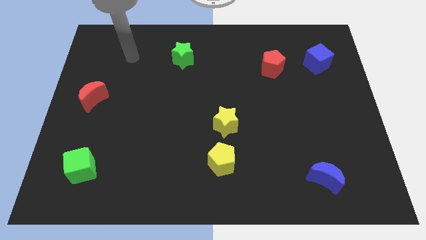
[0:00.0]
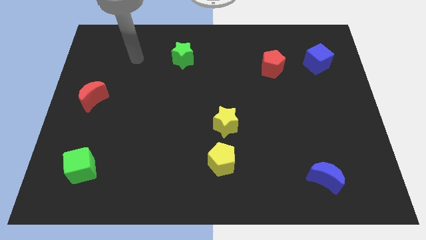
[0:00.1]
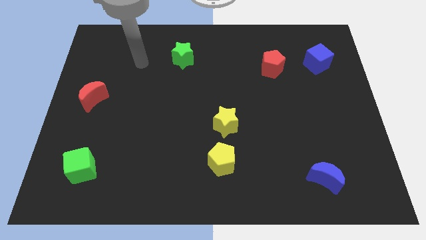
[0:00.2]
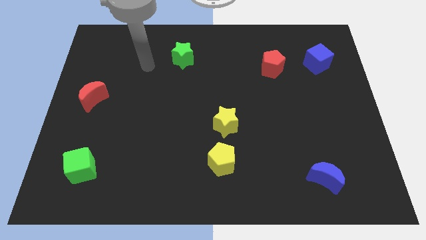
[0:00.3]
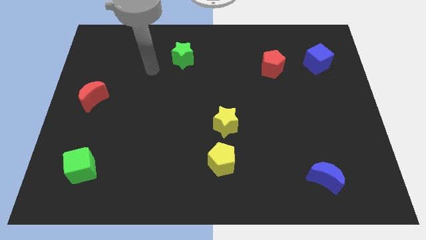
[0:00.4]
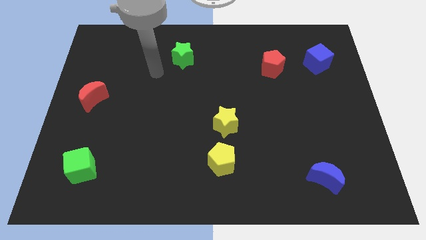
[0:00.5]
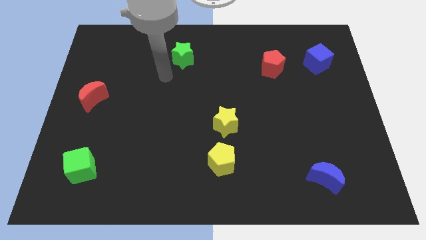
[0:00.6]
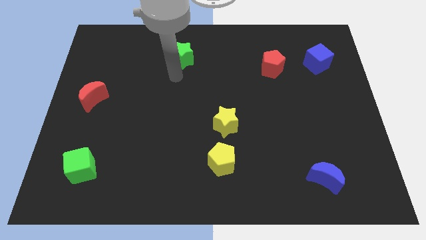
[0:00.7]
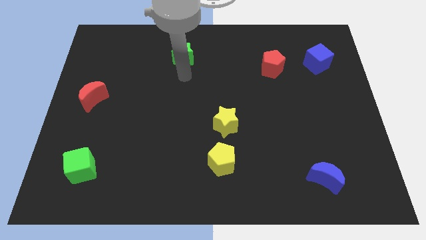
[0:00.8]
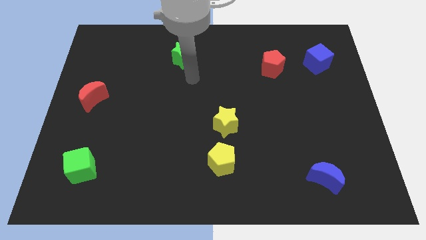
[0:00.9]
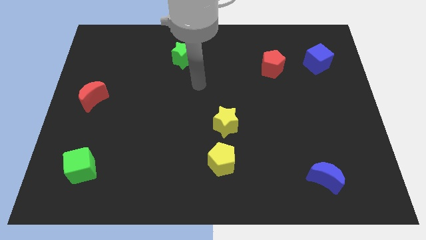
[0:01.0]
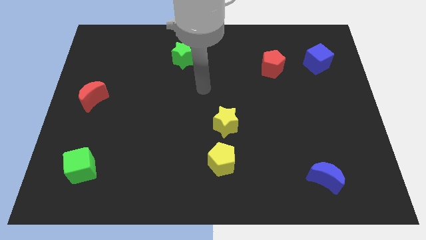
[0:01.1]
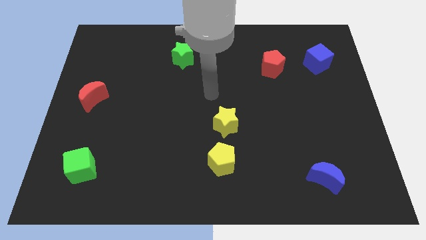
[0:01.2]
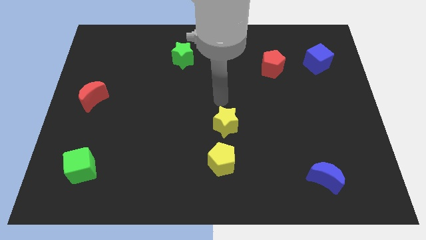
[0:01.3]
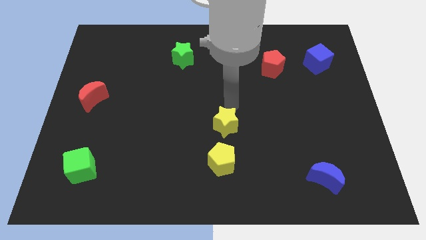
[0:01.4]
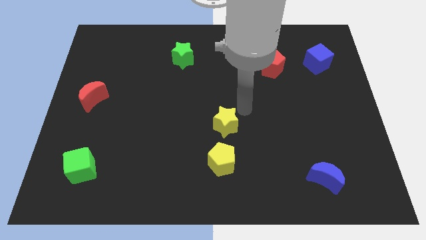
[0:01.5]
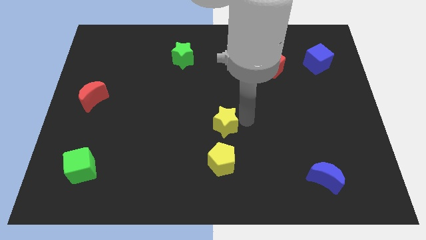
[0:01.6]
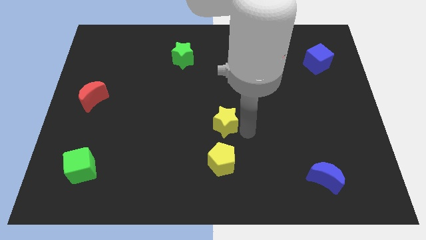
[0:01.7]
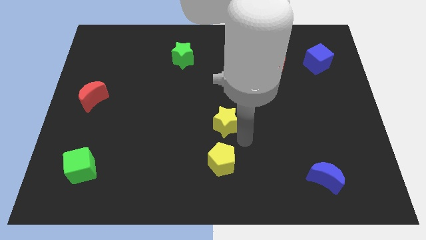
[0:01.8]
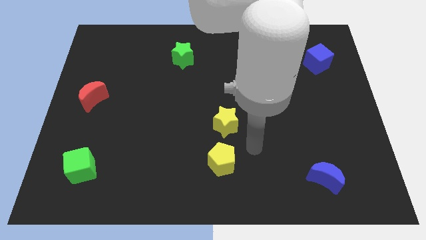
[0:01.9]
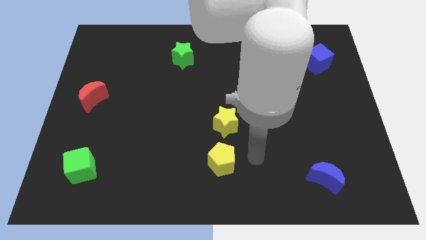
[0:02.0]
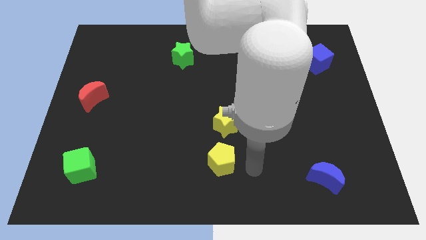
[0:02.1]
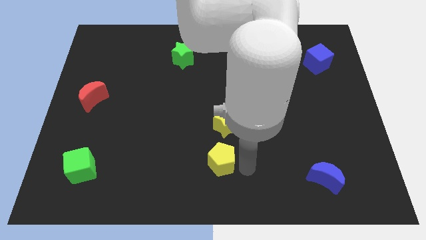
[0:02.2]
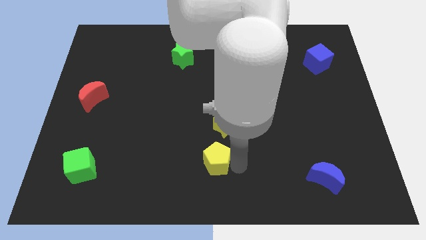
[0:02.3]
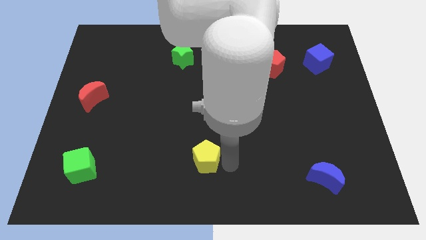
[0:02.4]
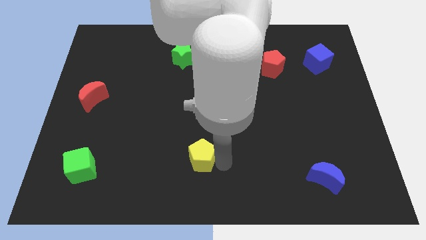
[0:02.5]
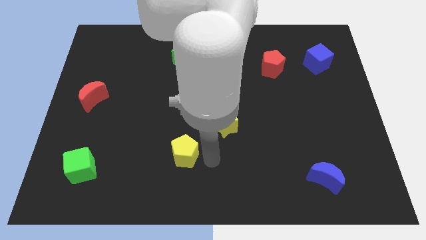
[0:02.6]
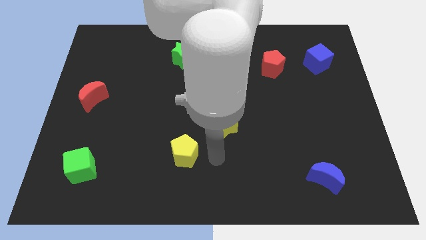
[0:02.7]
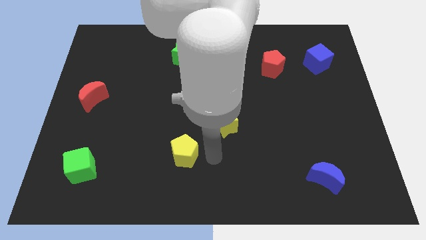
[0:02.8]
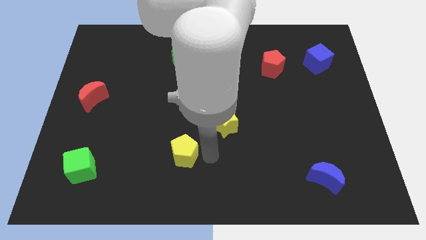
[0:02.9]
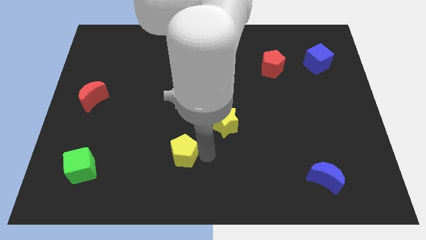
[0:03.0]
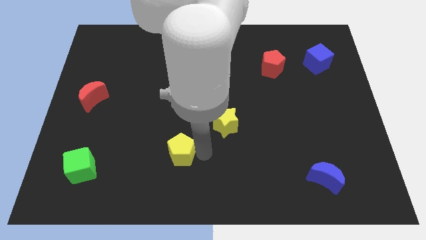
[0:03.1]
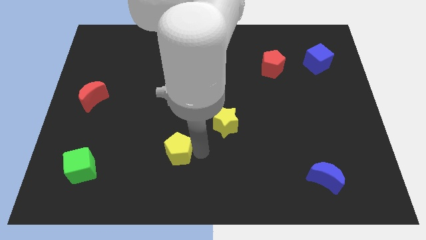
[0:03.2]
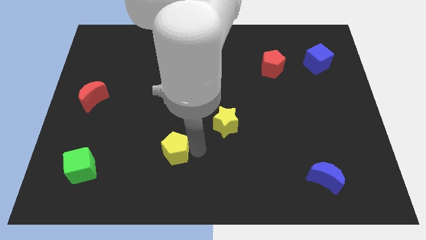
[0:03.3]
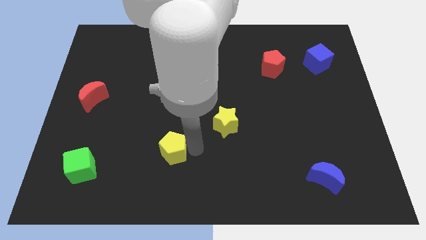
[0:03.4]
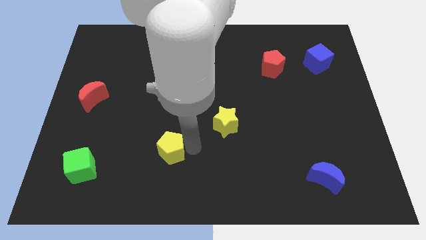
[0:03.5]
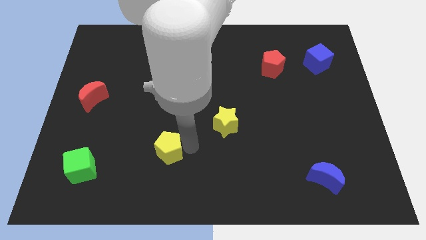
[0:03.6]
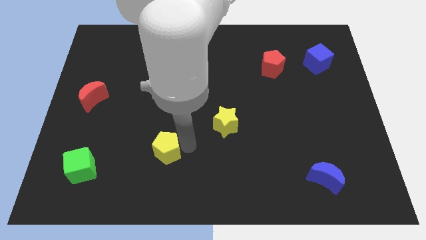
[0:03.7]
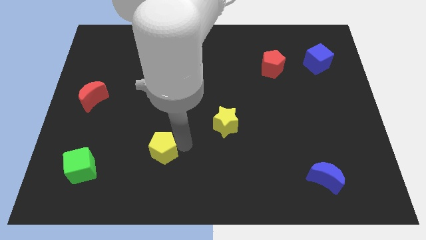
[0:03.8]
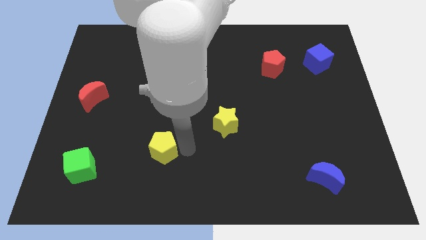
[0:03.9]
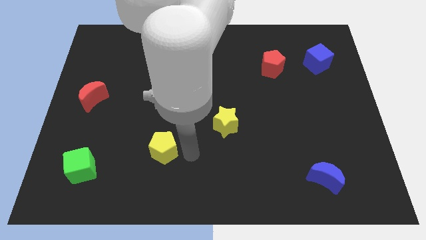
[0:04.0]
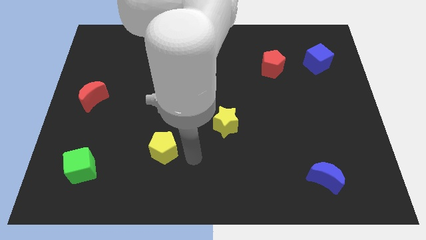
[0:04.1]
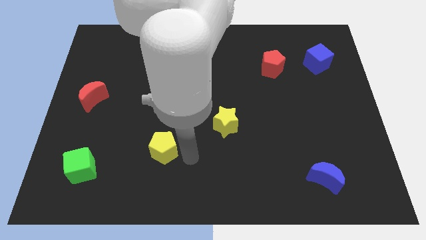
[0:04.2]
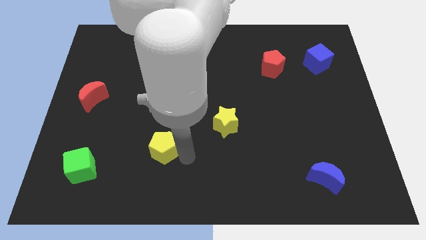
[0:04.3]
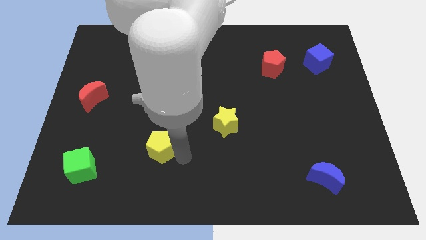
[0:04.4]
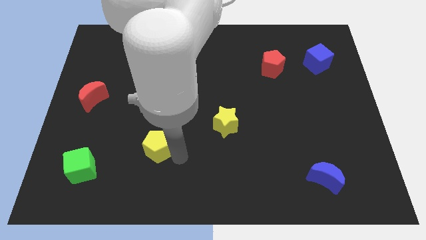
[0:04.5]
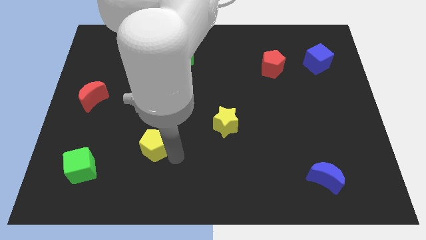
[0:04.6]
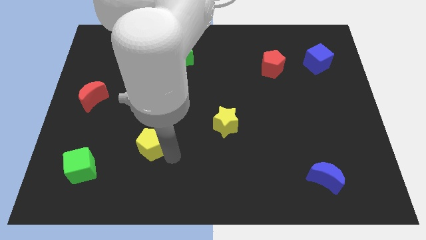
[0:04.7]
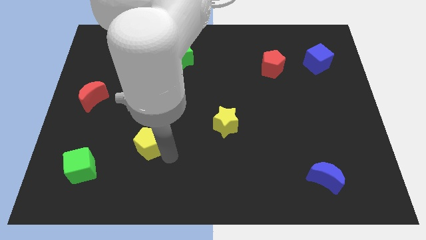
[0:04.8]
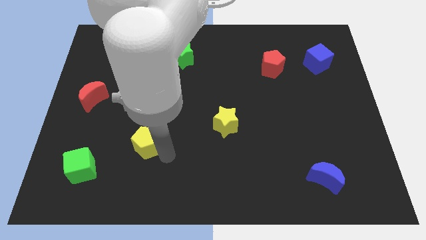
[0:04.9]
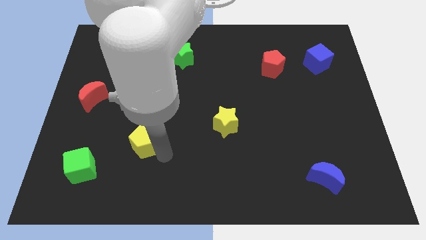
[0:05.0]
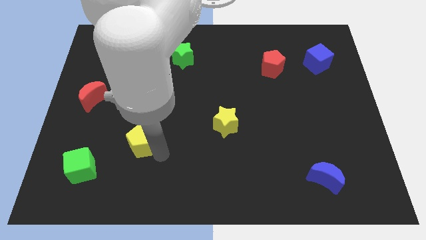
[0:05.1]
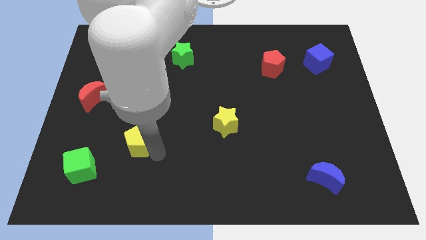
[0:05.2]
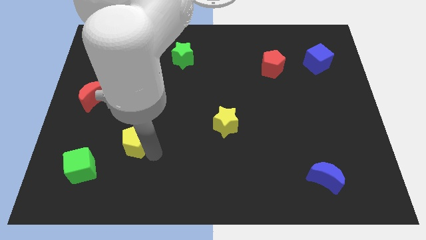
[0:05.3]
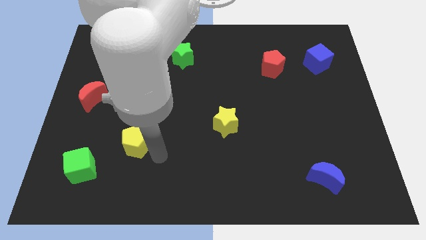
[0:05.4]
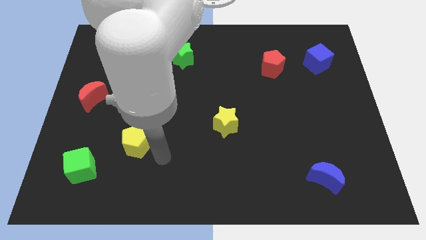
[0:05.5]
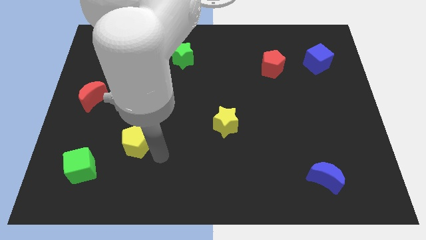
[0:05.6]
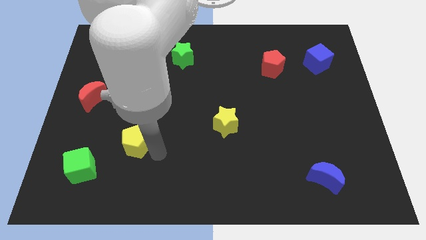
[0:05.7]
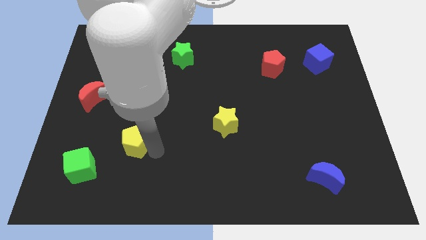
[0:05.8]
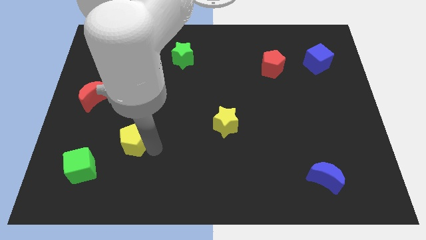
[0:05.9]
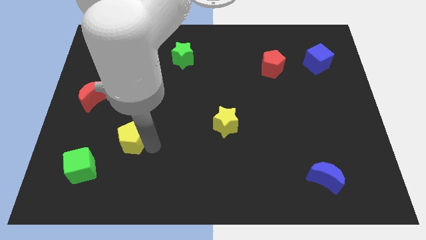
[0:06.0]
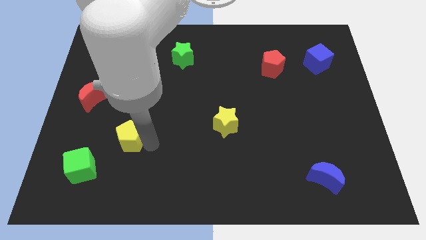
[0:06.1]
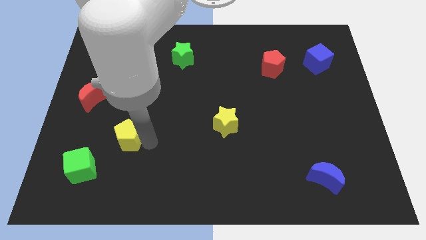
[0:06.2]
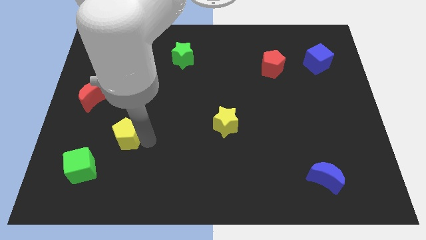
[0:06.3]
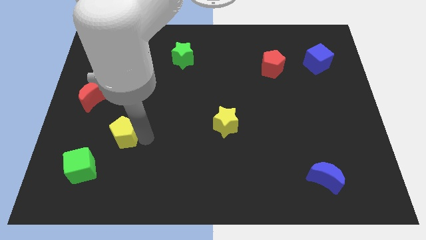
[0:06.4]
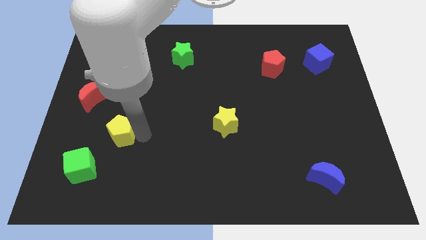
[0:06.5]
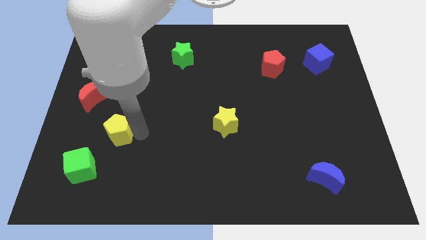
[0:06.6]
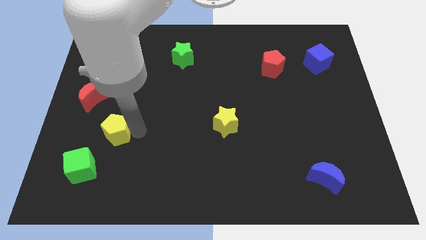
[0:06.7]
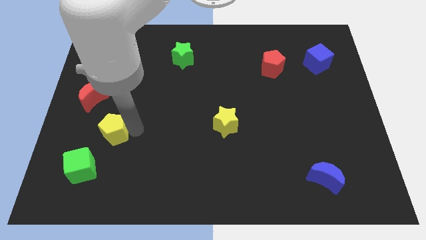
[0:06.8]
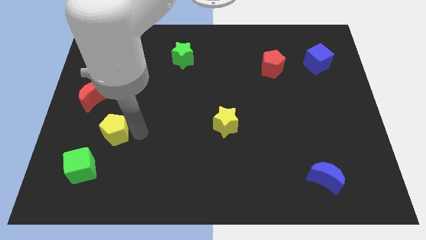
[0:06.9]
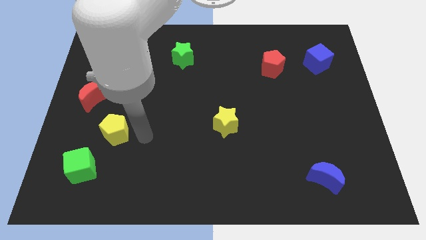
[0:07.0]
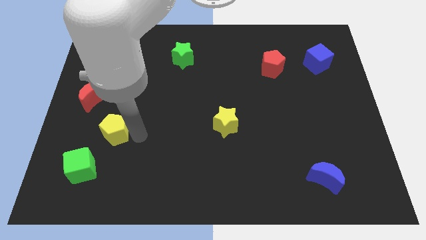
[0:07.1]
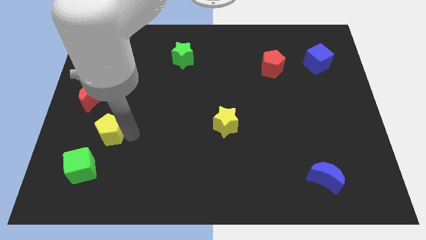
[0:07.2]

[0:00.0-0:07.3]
push the yellow pentagon to the top side of the green cube

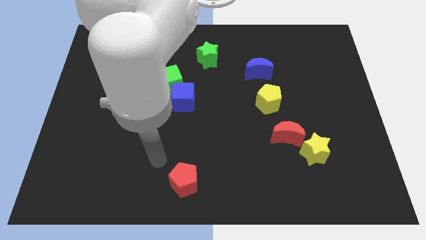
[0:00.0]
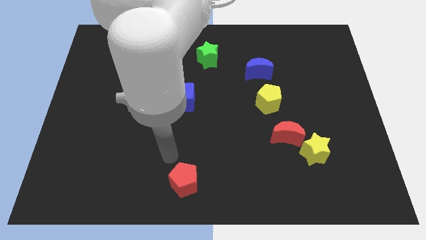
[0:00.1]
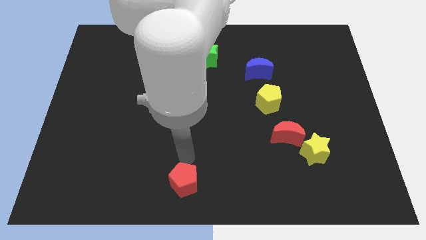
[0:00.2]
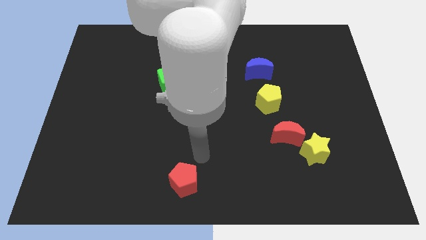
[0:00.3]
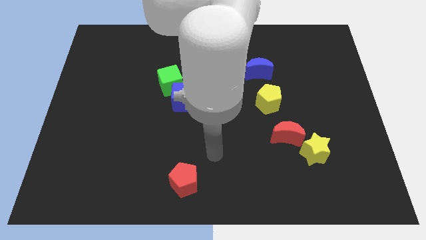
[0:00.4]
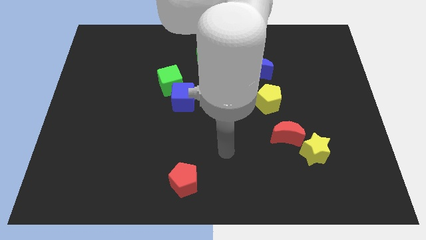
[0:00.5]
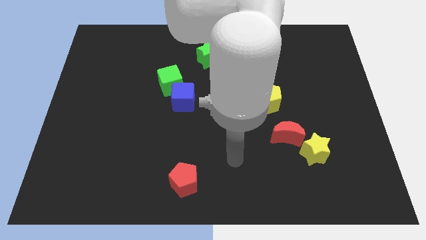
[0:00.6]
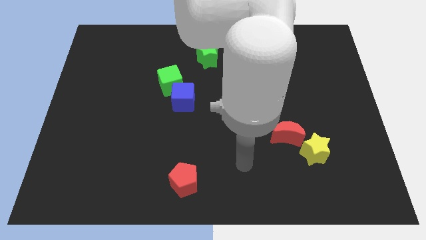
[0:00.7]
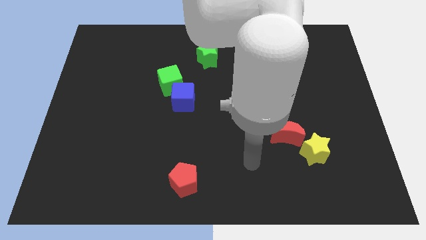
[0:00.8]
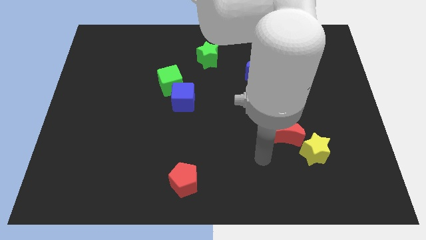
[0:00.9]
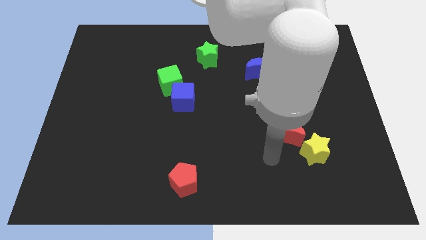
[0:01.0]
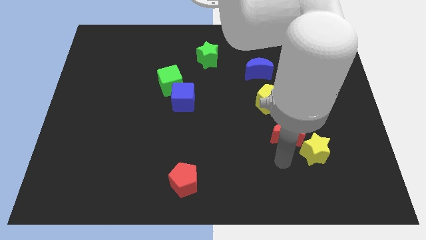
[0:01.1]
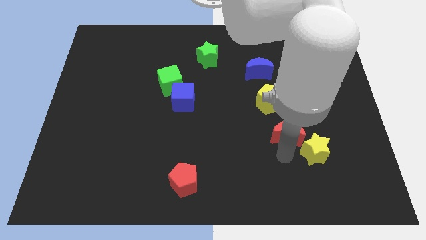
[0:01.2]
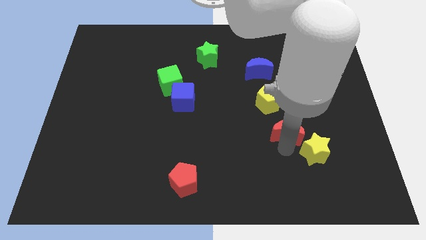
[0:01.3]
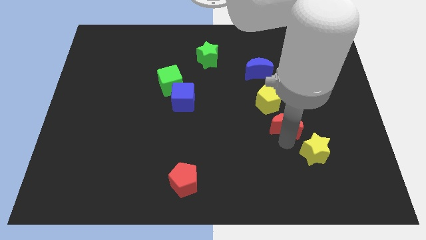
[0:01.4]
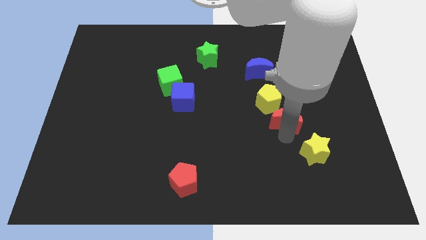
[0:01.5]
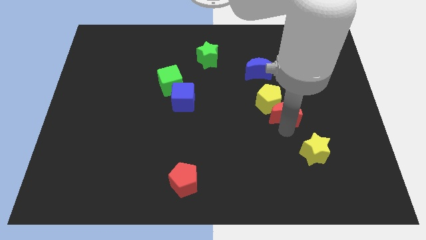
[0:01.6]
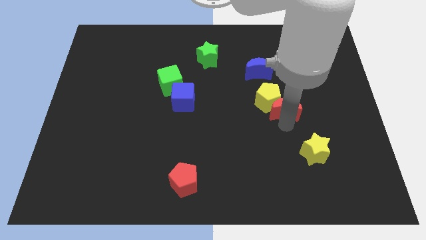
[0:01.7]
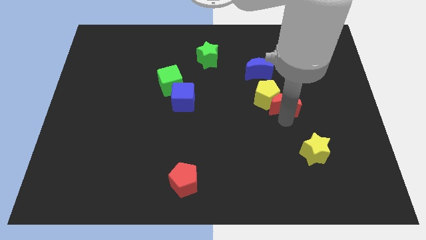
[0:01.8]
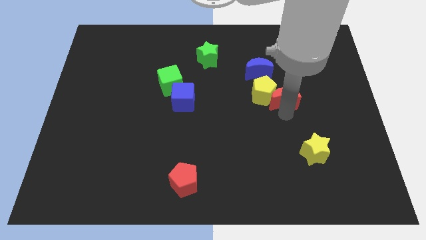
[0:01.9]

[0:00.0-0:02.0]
put the red moon to the bottom right side of the blue moon
